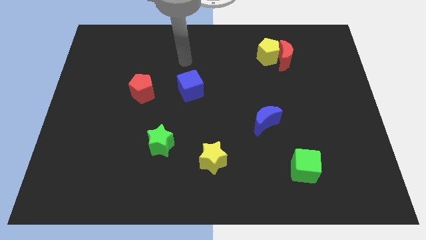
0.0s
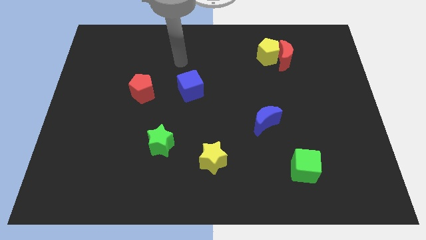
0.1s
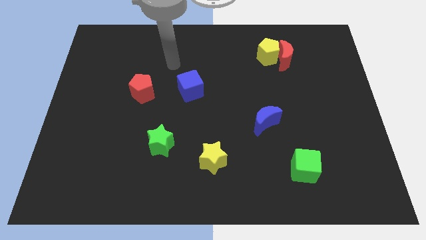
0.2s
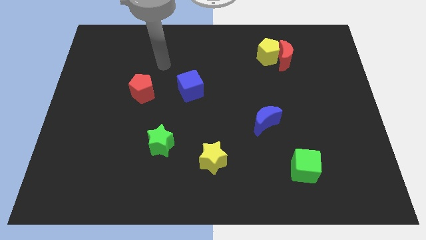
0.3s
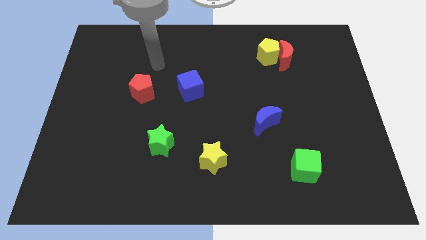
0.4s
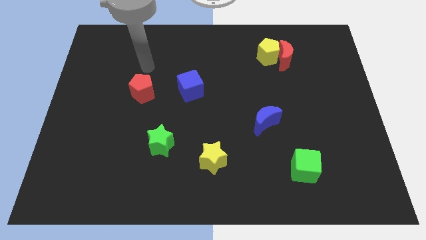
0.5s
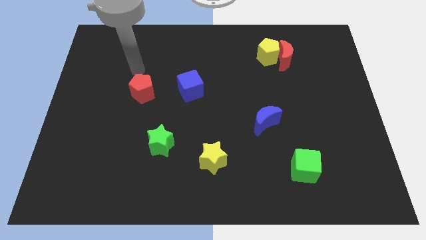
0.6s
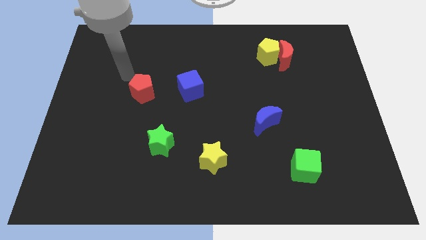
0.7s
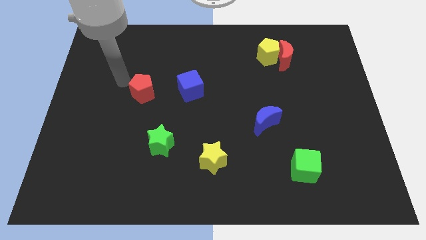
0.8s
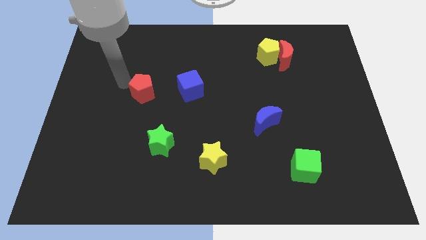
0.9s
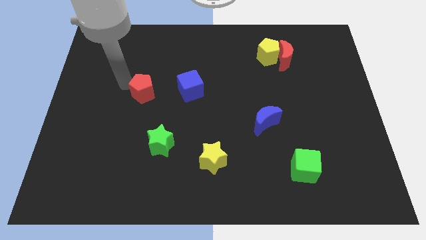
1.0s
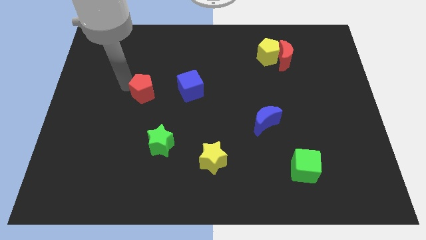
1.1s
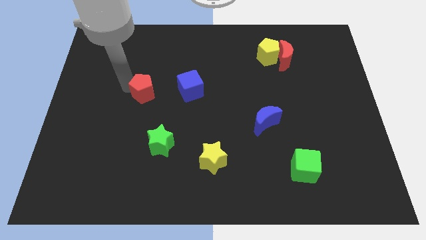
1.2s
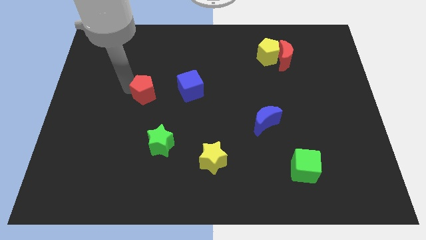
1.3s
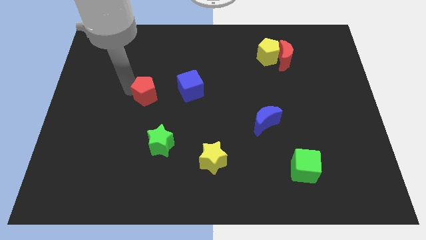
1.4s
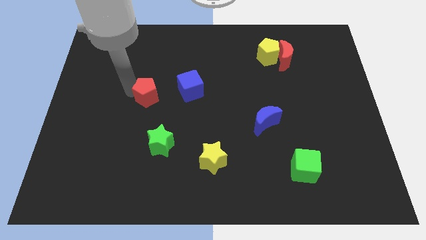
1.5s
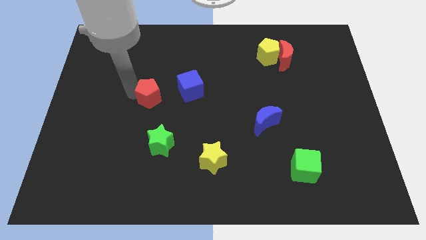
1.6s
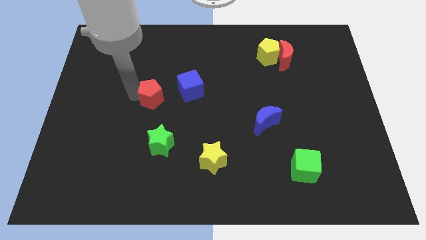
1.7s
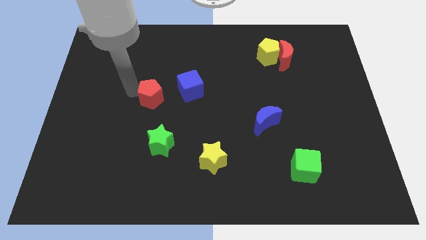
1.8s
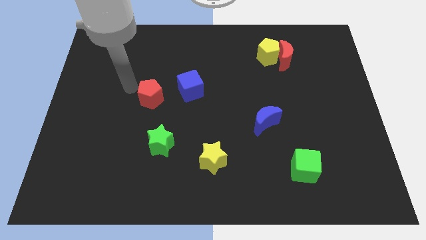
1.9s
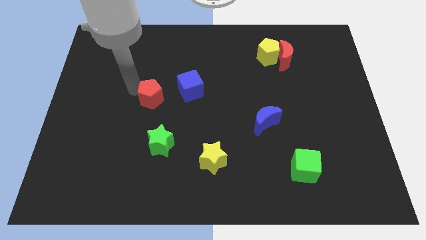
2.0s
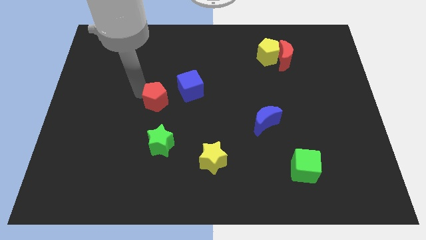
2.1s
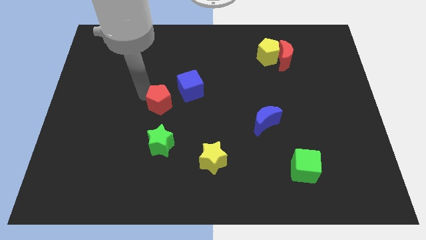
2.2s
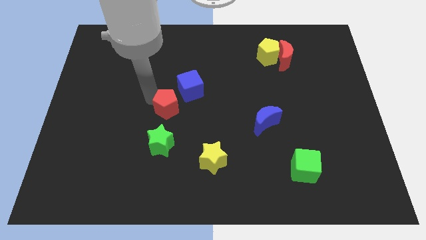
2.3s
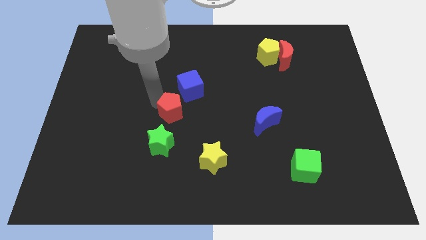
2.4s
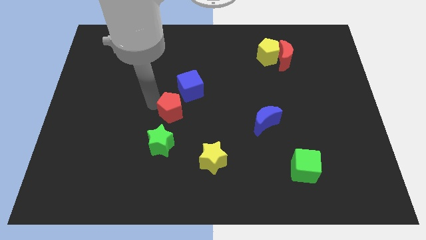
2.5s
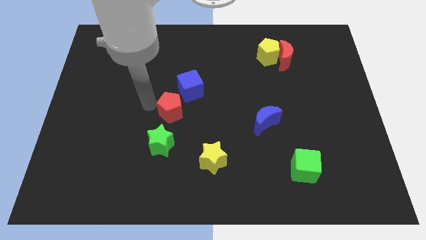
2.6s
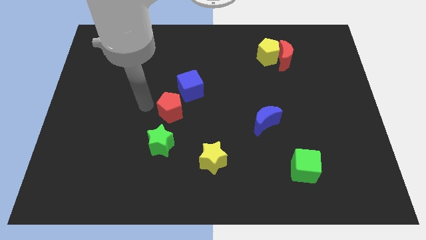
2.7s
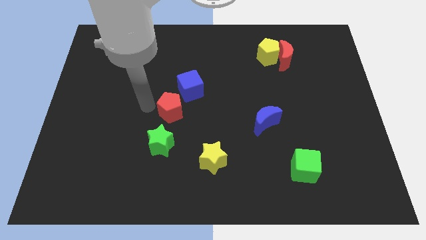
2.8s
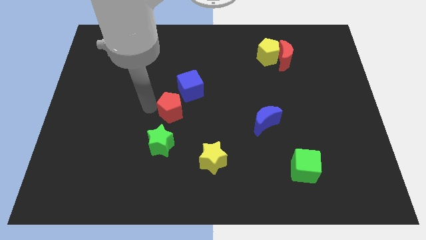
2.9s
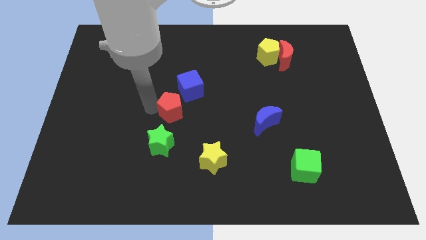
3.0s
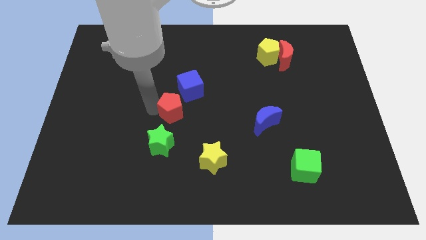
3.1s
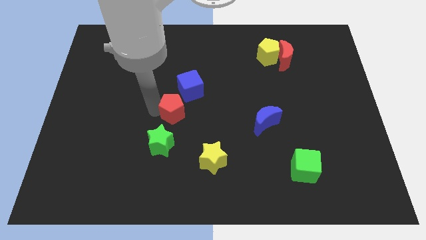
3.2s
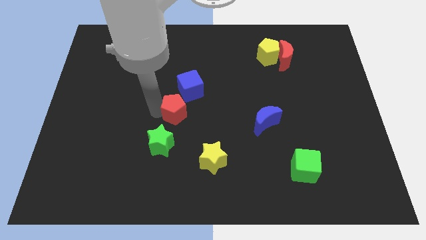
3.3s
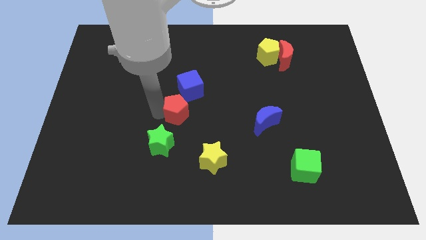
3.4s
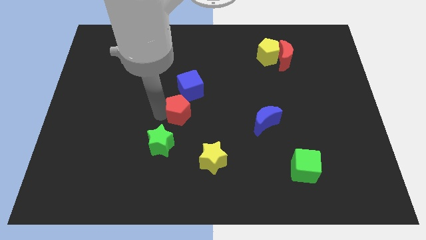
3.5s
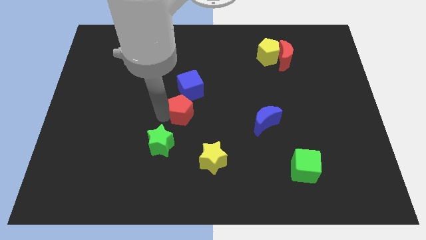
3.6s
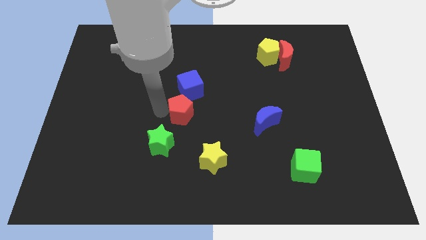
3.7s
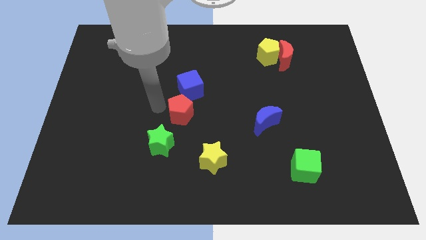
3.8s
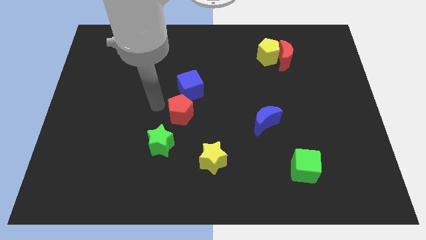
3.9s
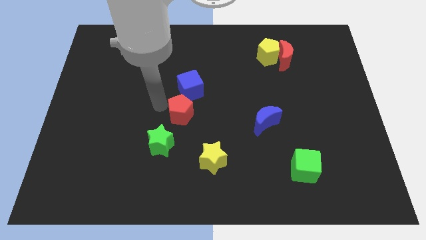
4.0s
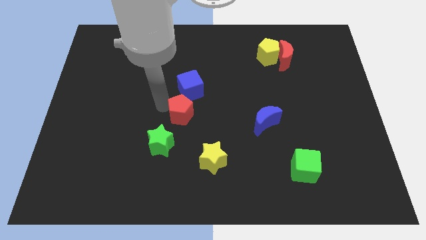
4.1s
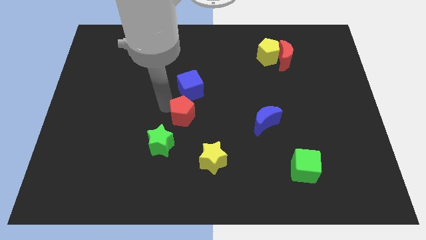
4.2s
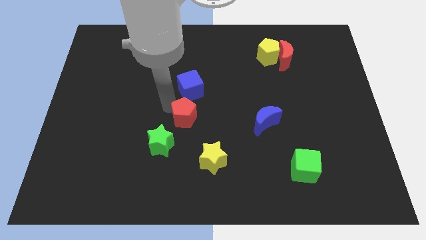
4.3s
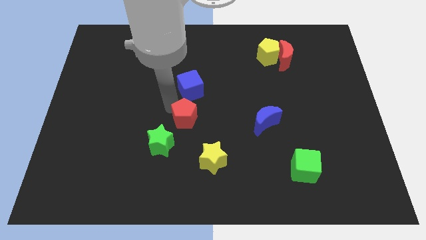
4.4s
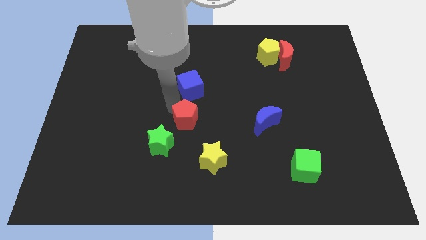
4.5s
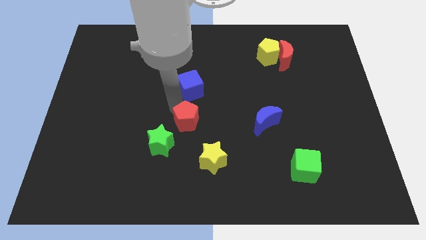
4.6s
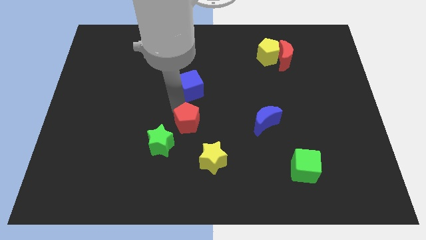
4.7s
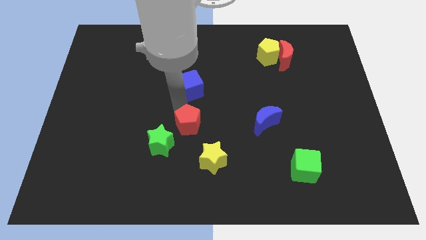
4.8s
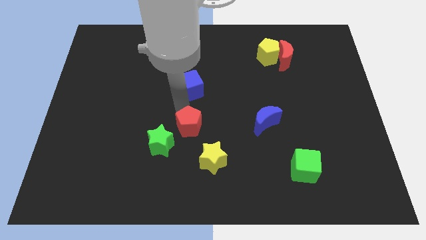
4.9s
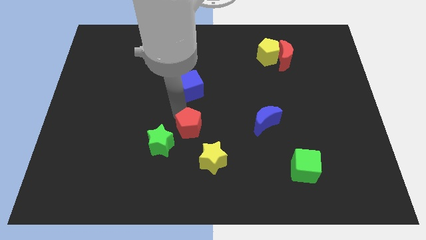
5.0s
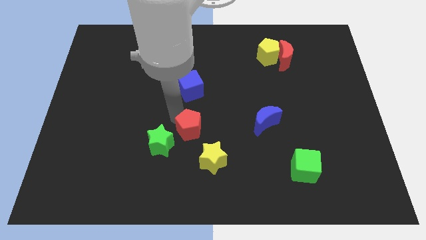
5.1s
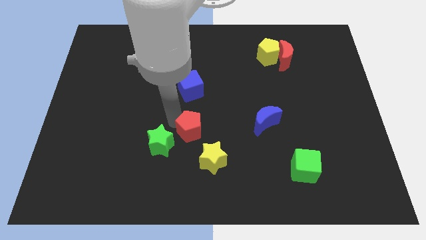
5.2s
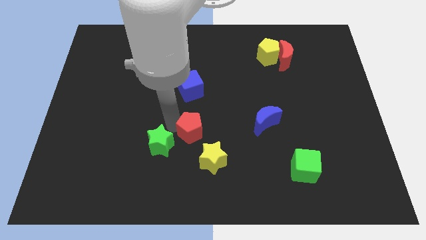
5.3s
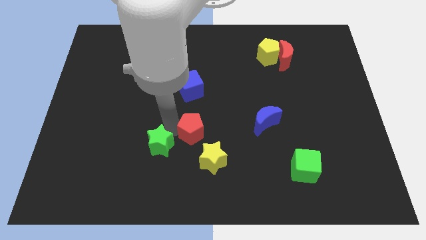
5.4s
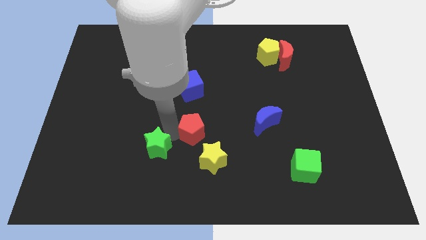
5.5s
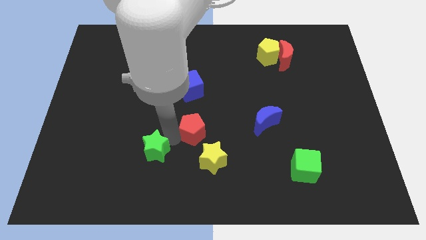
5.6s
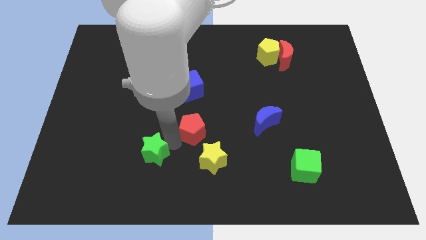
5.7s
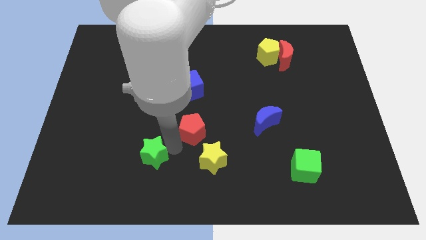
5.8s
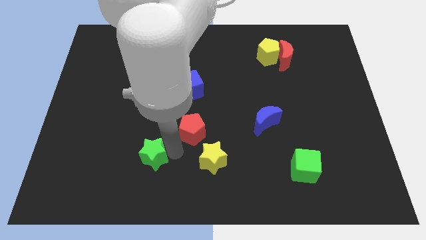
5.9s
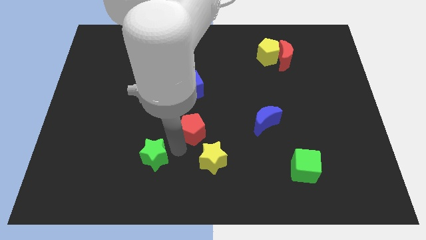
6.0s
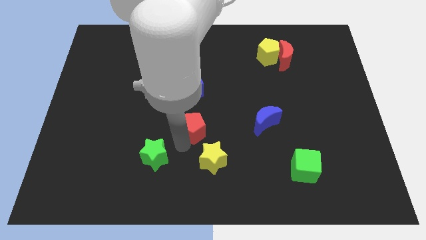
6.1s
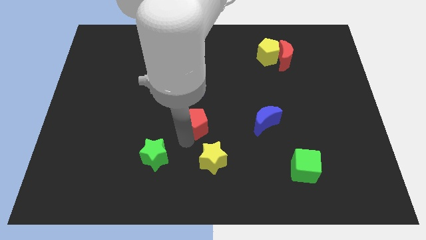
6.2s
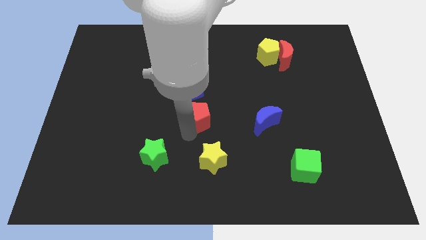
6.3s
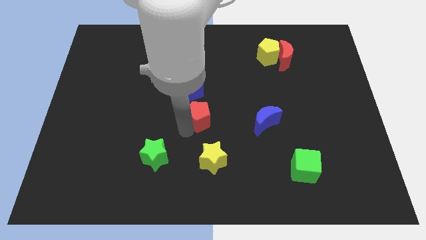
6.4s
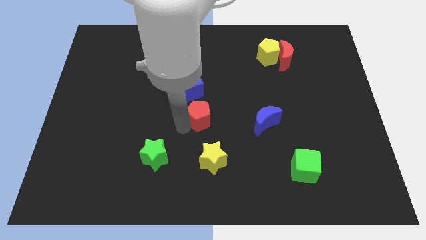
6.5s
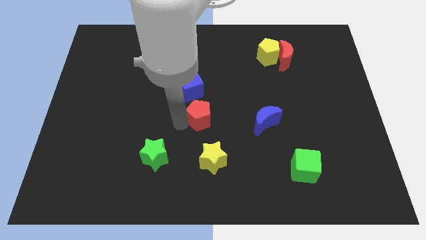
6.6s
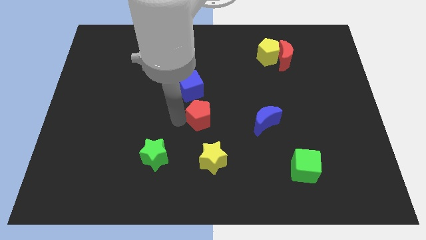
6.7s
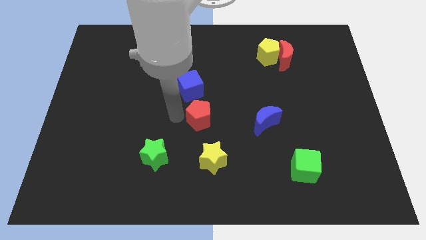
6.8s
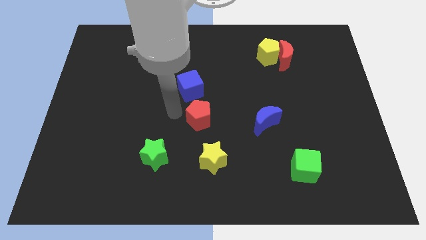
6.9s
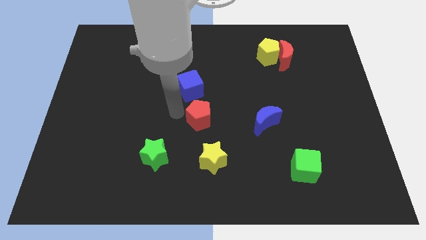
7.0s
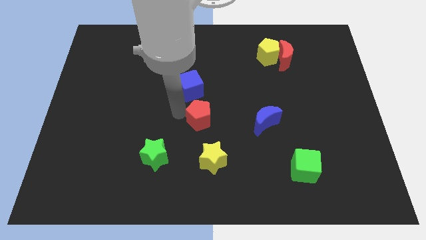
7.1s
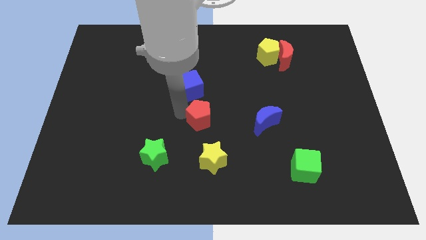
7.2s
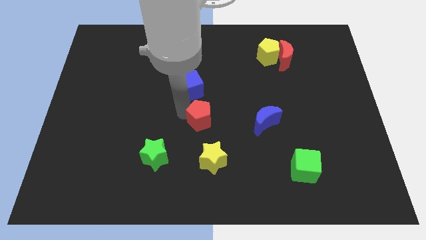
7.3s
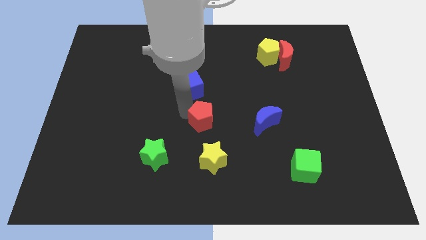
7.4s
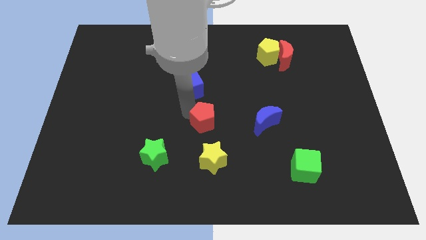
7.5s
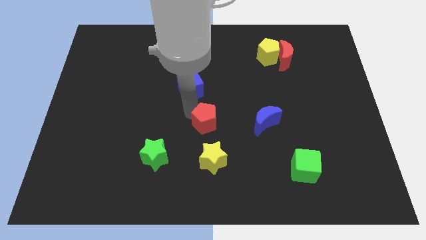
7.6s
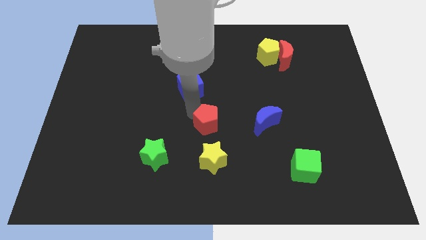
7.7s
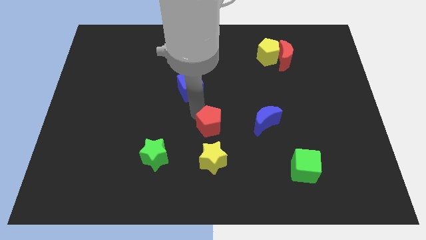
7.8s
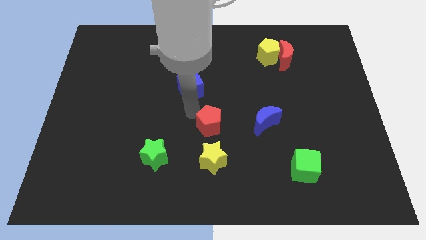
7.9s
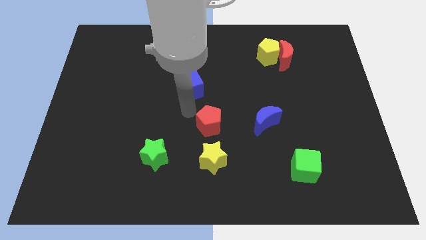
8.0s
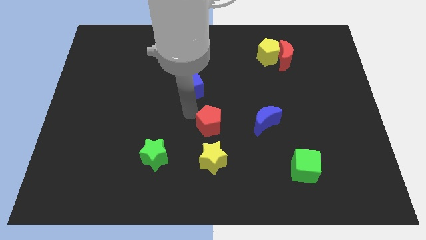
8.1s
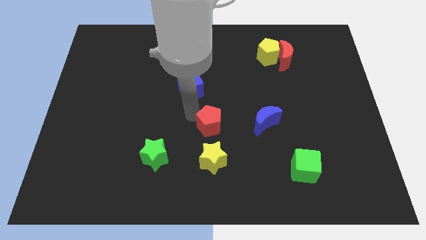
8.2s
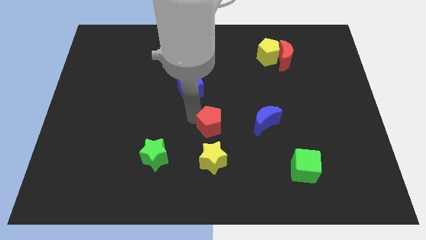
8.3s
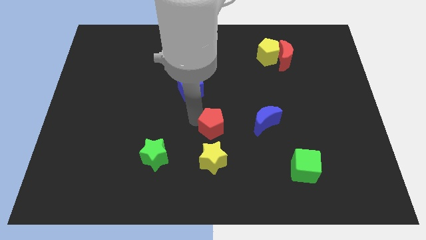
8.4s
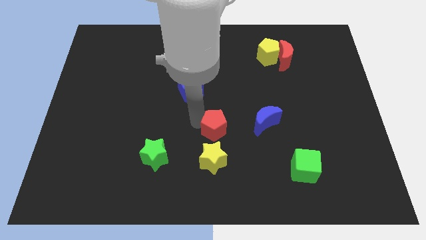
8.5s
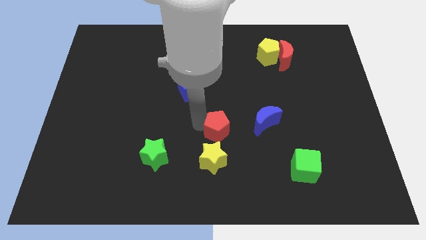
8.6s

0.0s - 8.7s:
move the red pentagon to the top right of the yellow star
